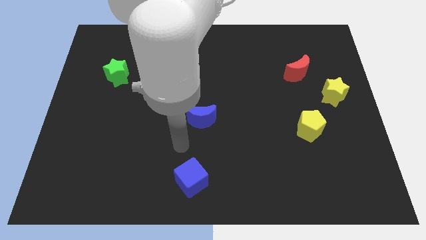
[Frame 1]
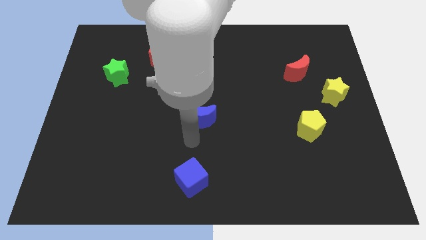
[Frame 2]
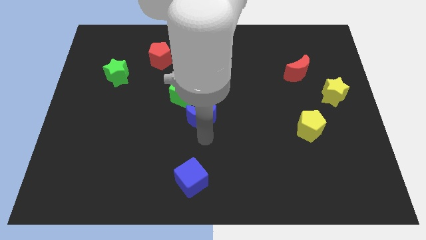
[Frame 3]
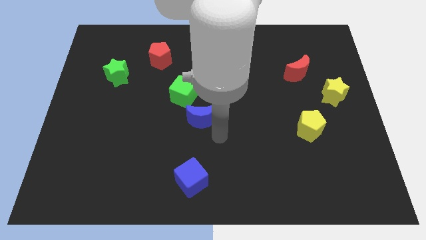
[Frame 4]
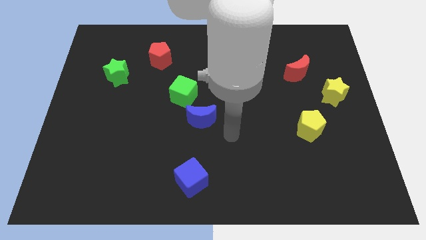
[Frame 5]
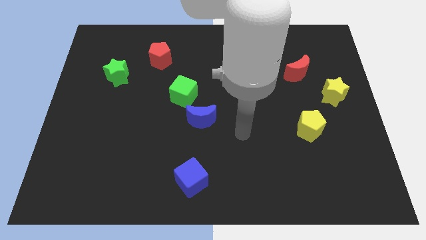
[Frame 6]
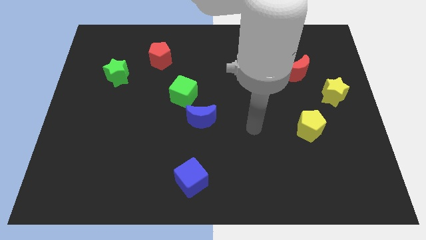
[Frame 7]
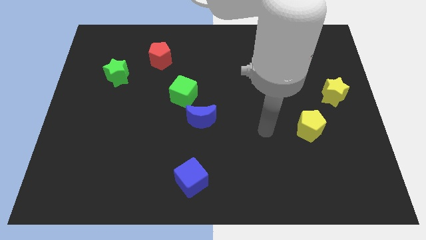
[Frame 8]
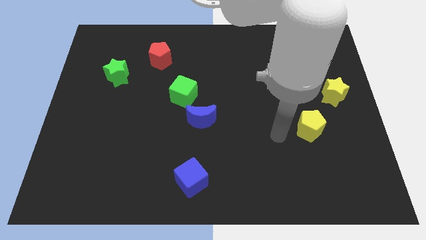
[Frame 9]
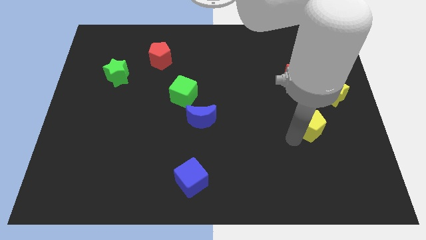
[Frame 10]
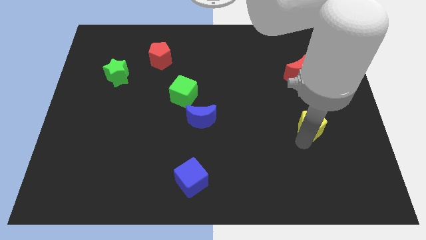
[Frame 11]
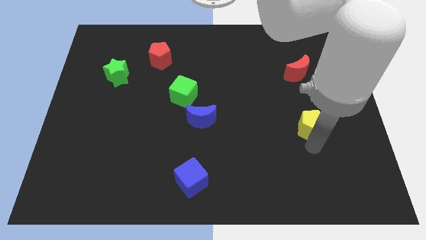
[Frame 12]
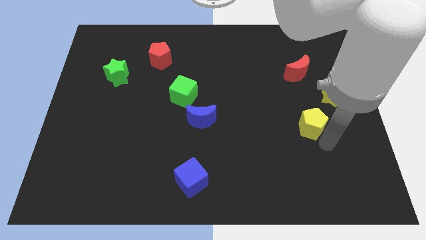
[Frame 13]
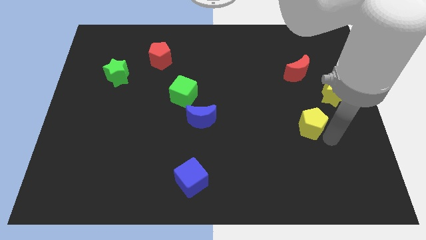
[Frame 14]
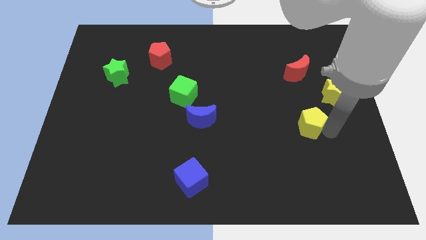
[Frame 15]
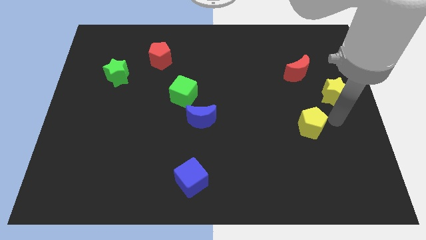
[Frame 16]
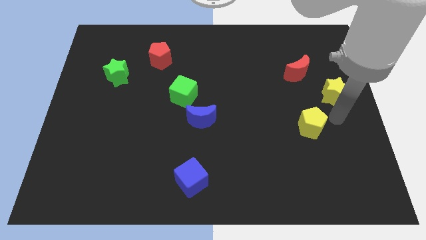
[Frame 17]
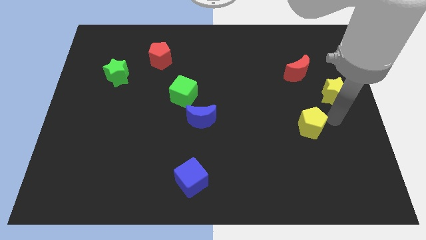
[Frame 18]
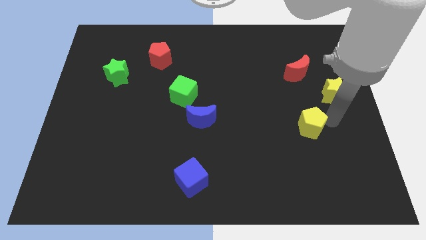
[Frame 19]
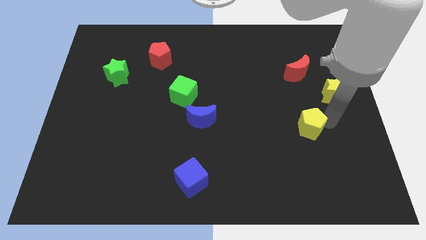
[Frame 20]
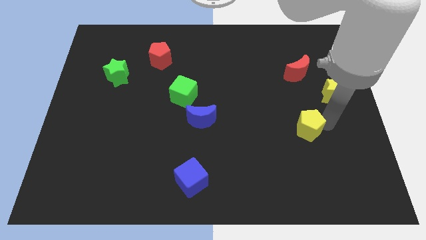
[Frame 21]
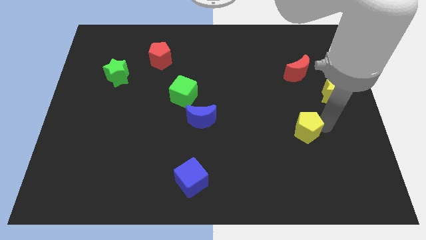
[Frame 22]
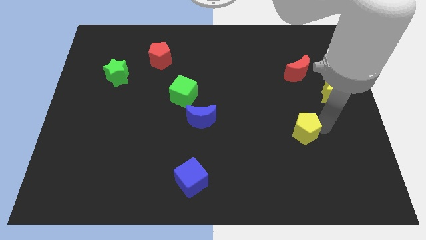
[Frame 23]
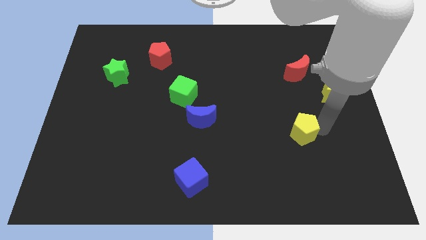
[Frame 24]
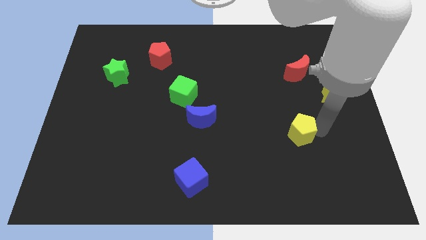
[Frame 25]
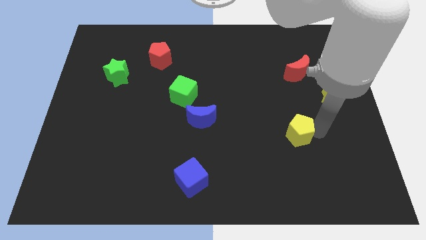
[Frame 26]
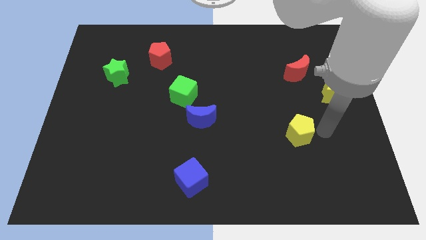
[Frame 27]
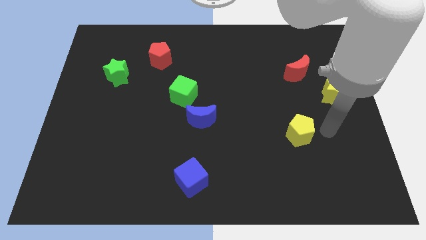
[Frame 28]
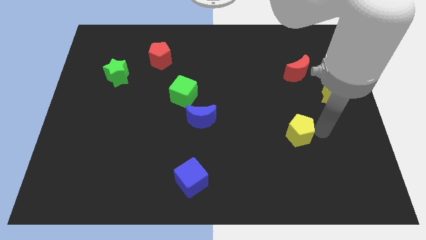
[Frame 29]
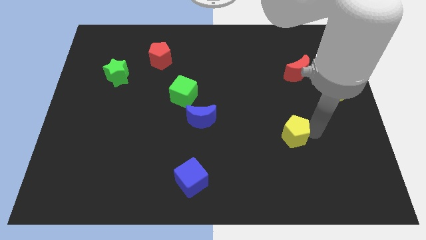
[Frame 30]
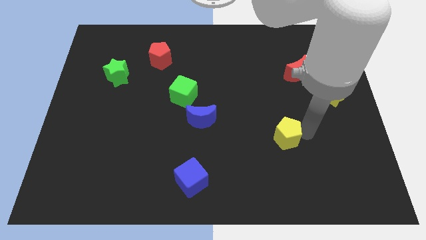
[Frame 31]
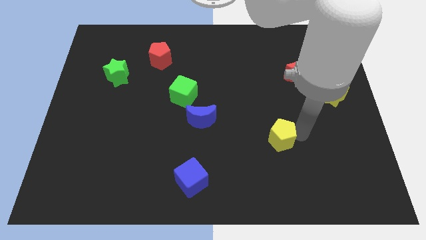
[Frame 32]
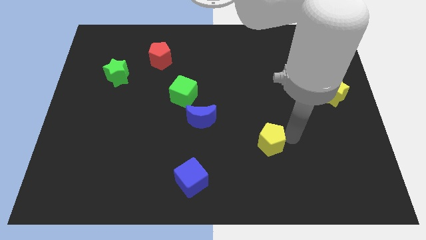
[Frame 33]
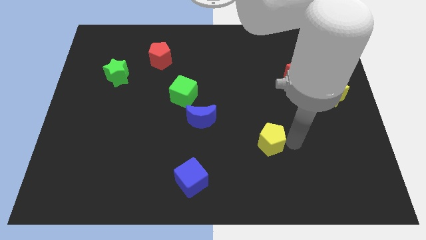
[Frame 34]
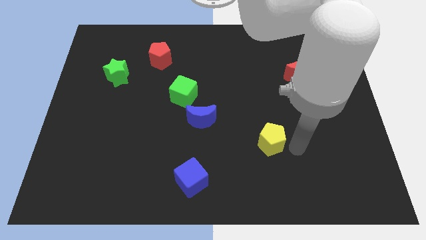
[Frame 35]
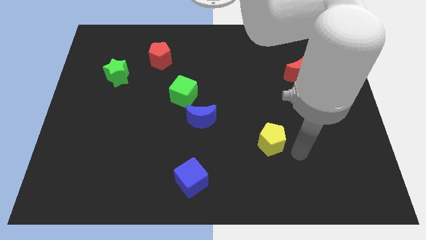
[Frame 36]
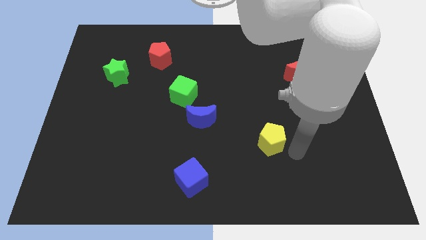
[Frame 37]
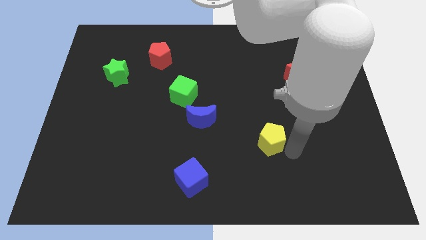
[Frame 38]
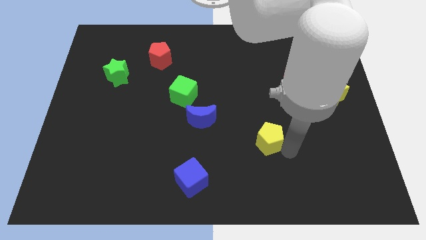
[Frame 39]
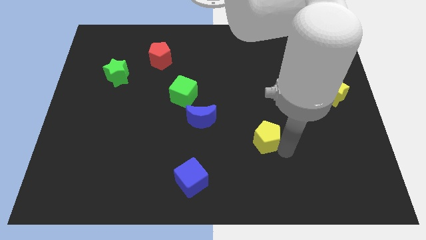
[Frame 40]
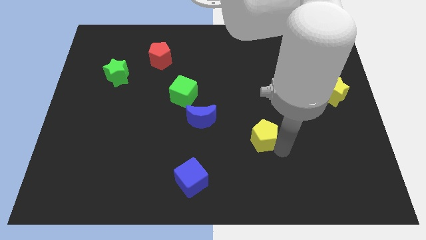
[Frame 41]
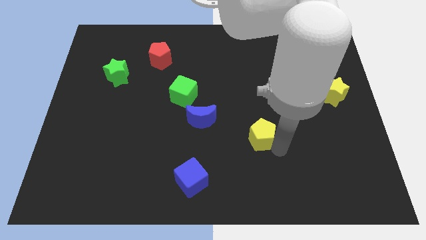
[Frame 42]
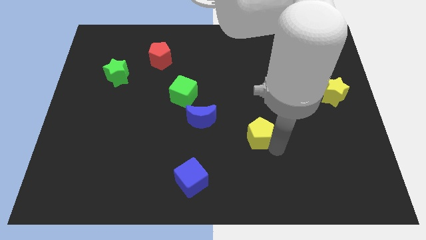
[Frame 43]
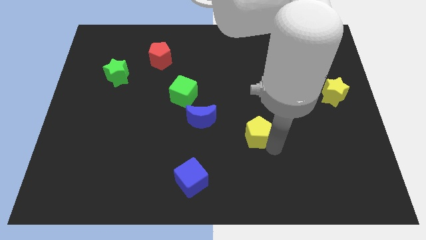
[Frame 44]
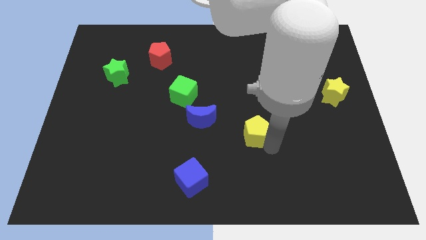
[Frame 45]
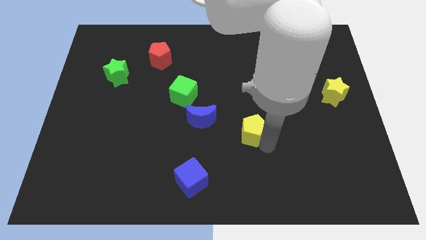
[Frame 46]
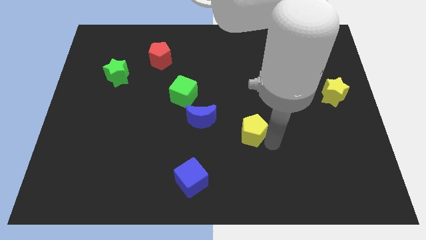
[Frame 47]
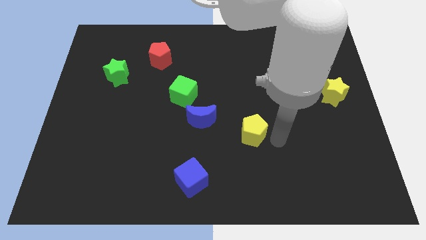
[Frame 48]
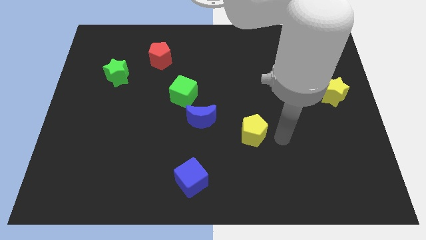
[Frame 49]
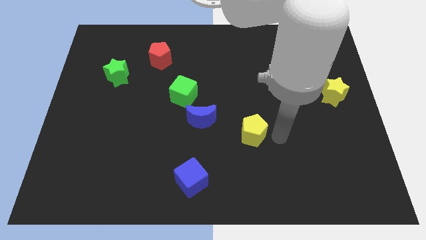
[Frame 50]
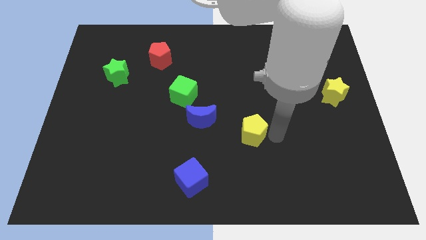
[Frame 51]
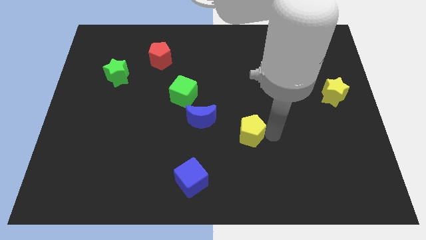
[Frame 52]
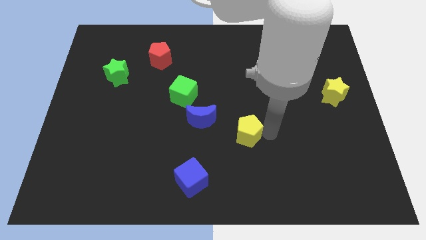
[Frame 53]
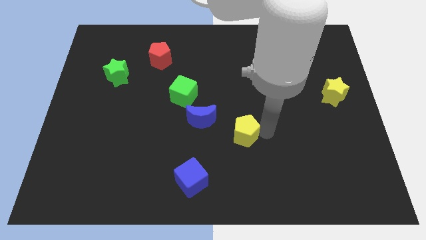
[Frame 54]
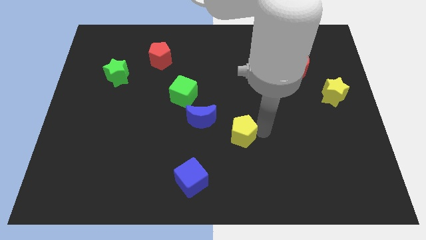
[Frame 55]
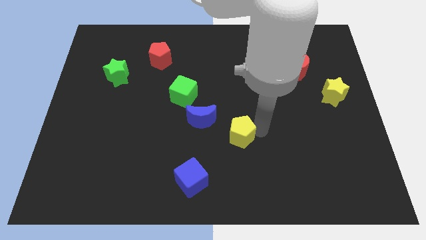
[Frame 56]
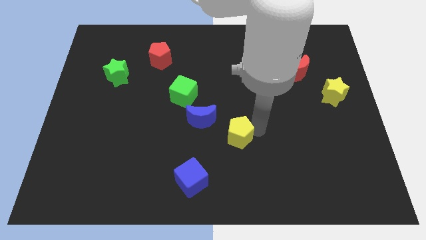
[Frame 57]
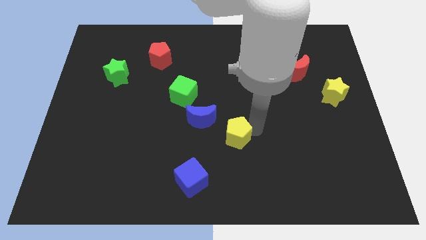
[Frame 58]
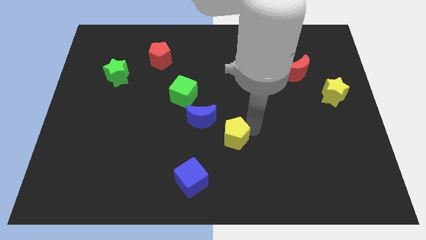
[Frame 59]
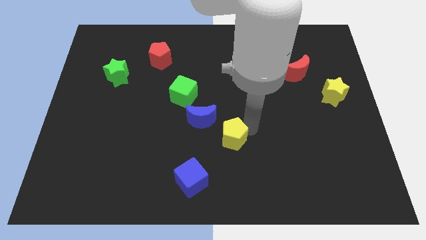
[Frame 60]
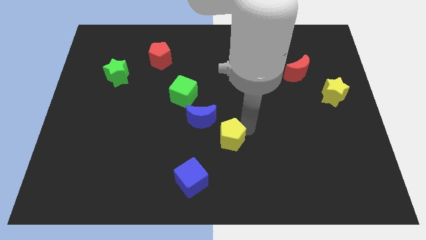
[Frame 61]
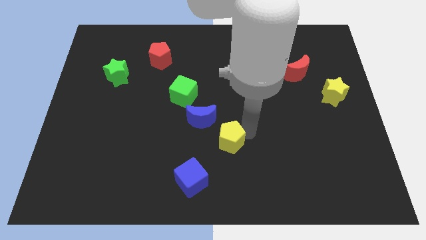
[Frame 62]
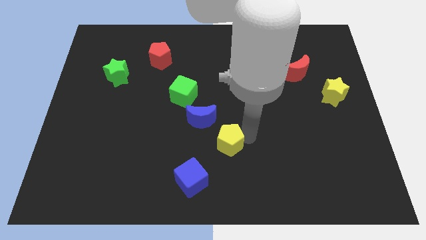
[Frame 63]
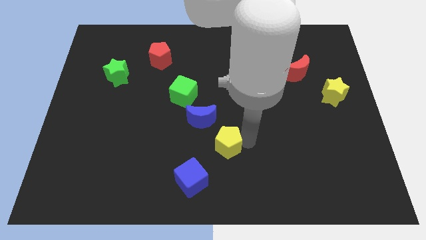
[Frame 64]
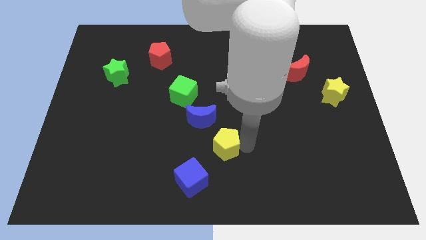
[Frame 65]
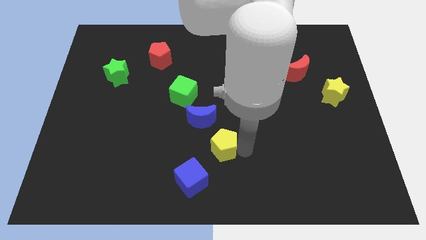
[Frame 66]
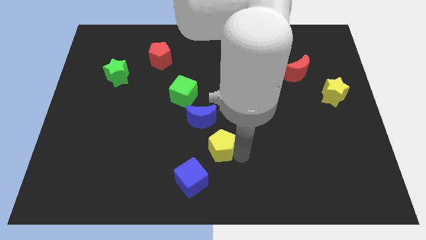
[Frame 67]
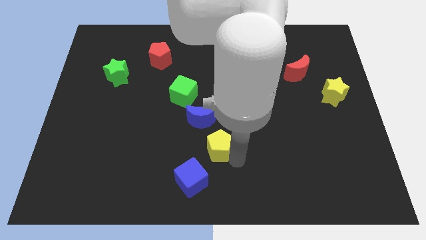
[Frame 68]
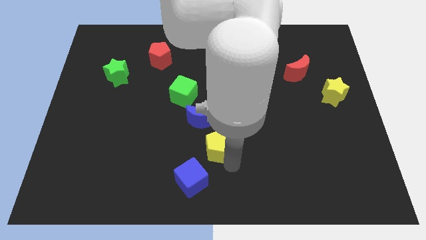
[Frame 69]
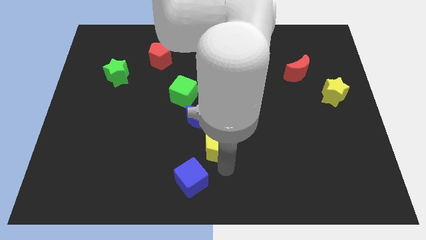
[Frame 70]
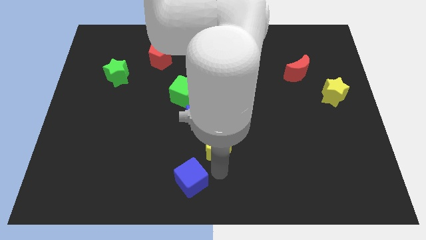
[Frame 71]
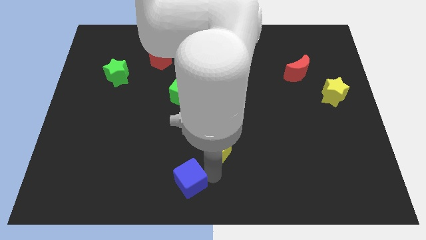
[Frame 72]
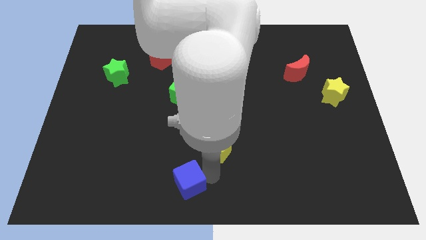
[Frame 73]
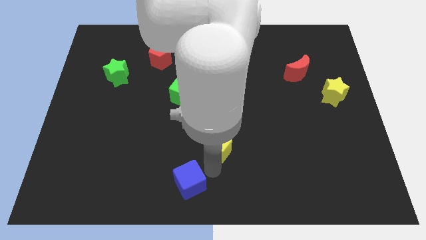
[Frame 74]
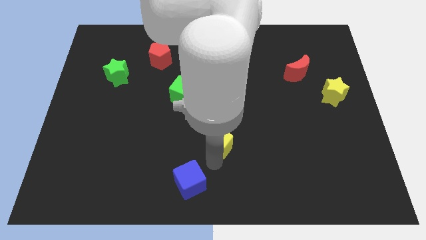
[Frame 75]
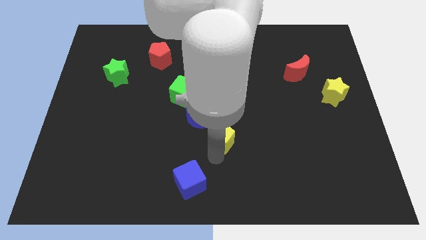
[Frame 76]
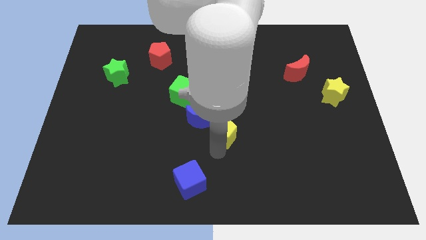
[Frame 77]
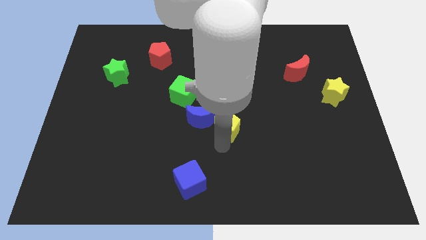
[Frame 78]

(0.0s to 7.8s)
slide the yellow pentagon next to the blue moon
